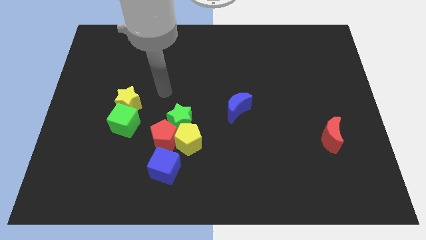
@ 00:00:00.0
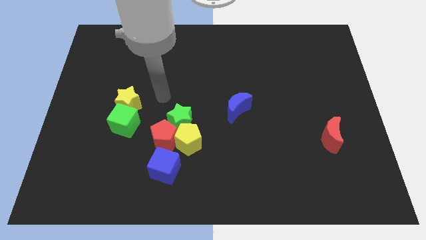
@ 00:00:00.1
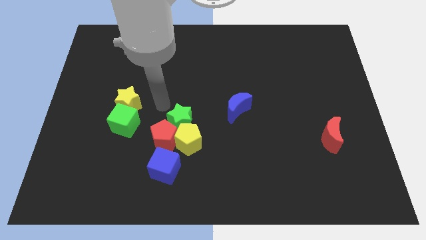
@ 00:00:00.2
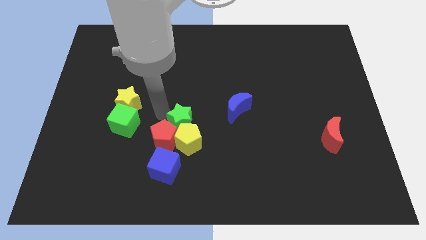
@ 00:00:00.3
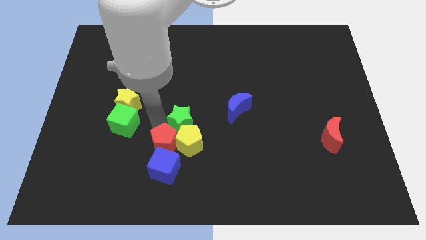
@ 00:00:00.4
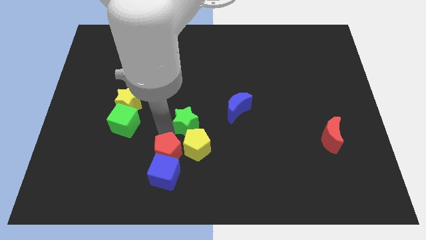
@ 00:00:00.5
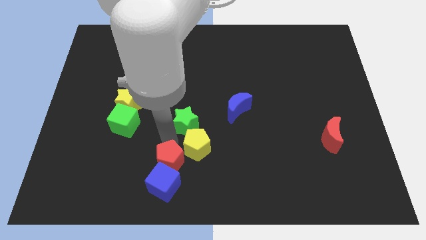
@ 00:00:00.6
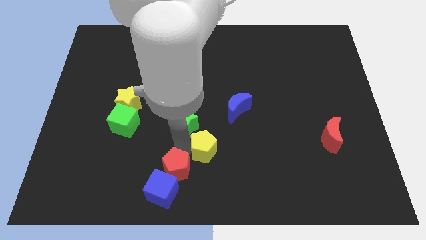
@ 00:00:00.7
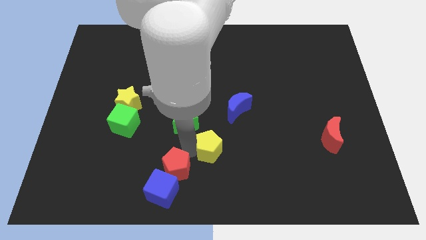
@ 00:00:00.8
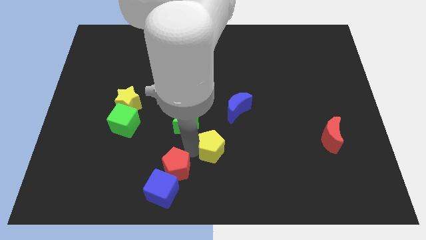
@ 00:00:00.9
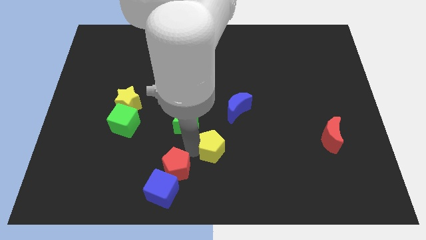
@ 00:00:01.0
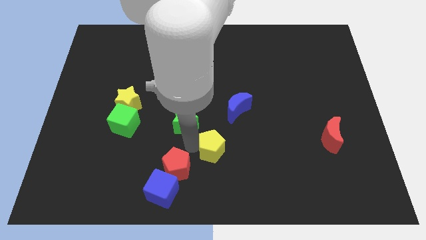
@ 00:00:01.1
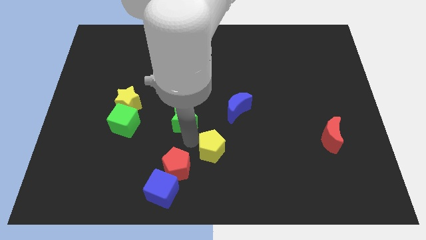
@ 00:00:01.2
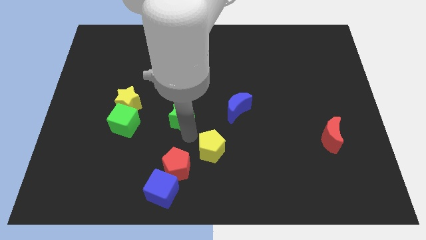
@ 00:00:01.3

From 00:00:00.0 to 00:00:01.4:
pull the green star apart from the red pentagon and yellow pentagon

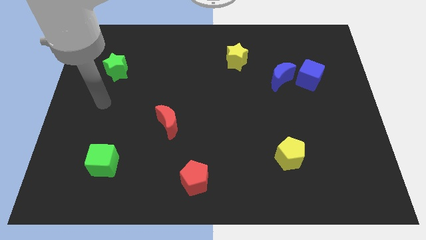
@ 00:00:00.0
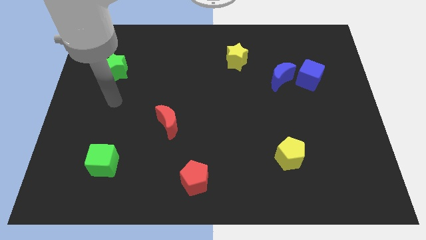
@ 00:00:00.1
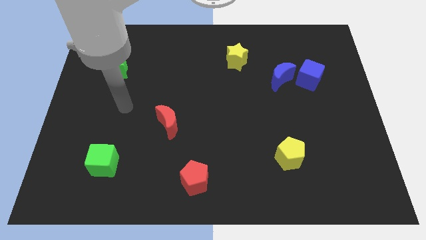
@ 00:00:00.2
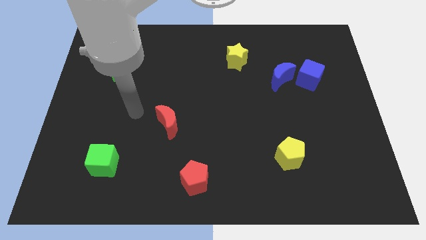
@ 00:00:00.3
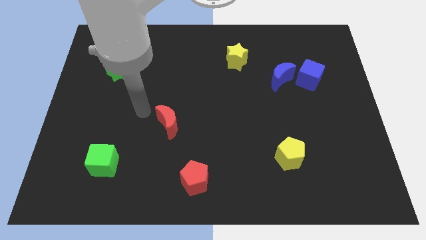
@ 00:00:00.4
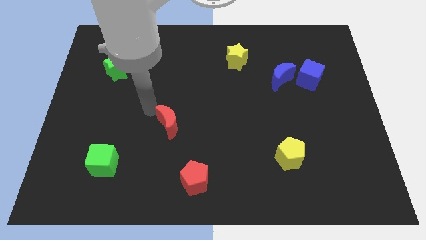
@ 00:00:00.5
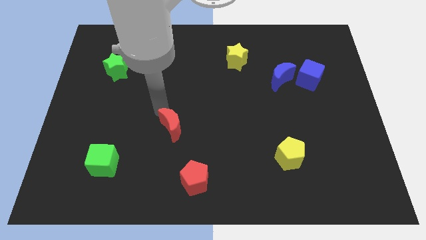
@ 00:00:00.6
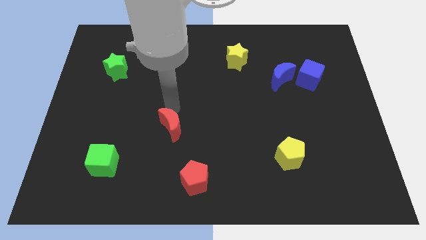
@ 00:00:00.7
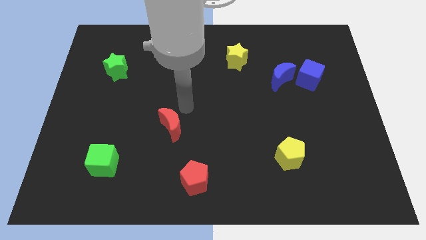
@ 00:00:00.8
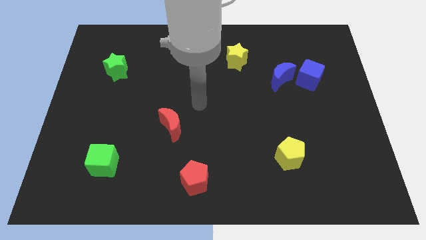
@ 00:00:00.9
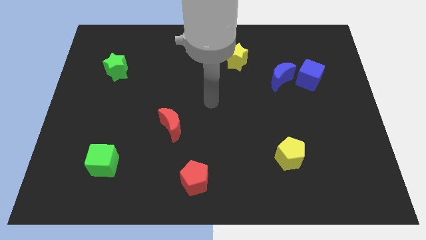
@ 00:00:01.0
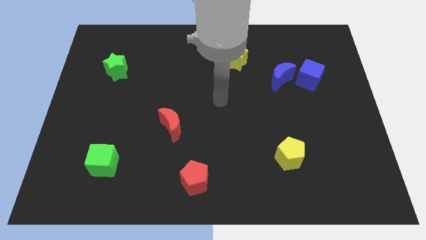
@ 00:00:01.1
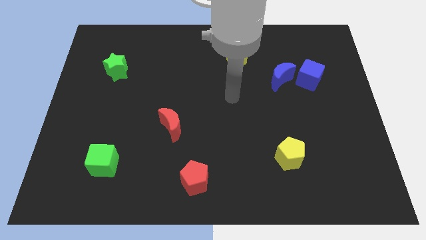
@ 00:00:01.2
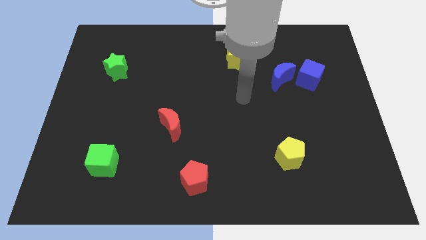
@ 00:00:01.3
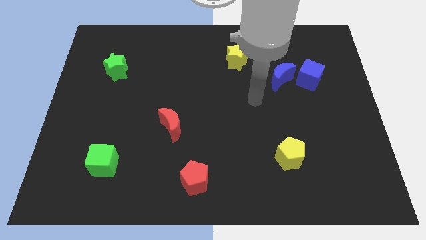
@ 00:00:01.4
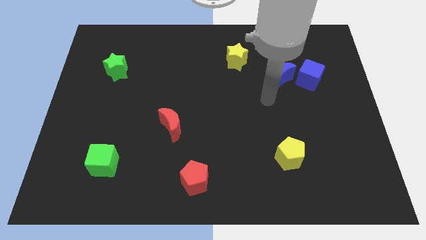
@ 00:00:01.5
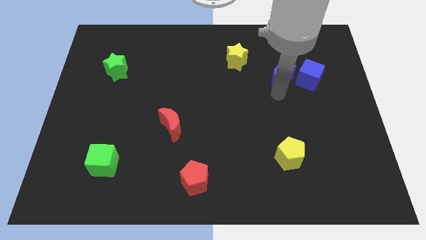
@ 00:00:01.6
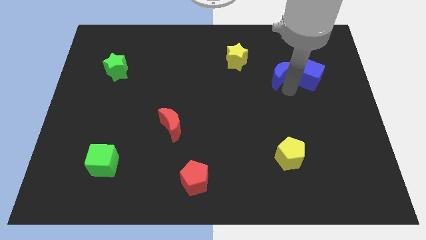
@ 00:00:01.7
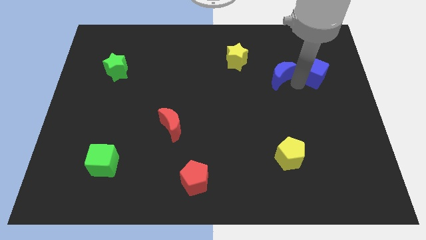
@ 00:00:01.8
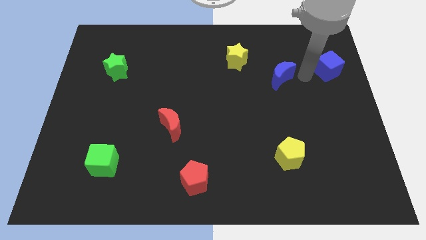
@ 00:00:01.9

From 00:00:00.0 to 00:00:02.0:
move the blue moon away from the blue cube

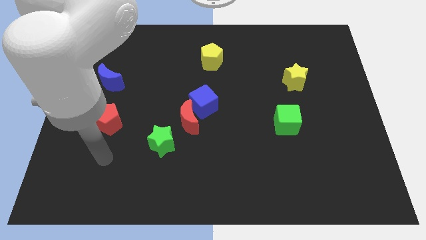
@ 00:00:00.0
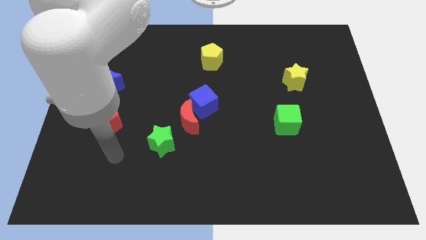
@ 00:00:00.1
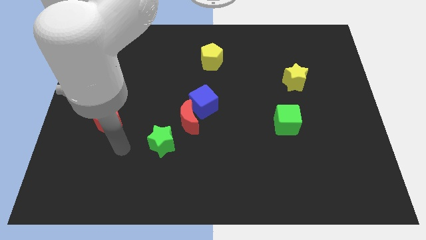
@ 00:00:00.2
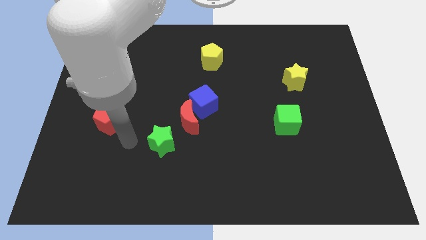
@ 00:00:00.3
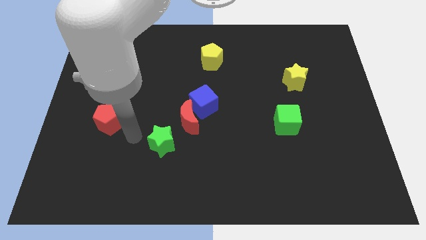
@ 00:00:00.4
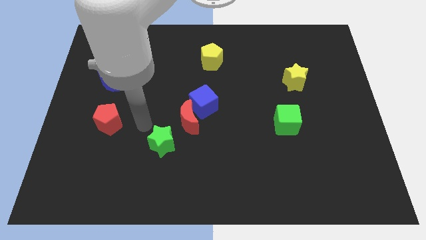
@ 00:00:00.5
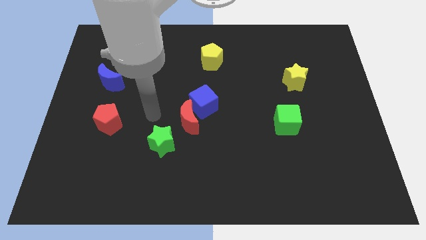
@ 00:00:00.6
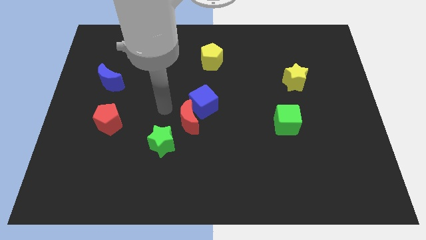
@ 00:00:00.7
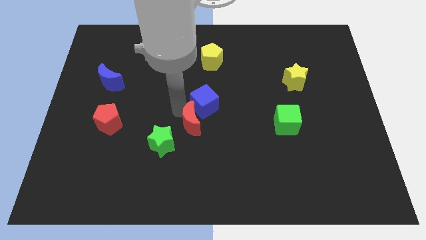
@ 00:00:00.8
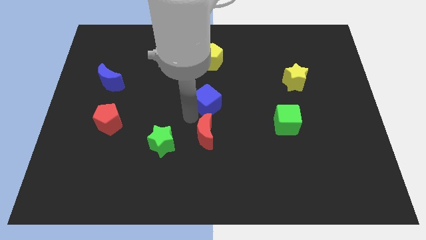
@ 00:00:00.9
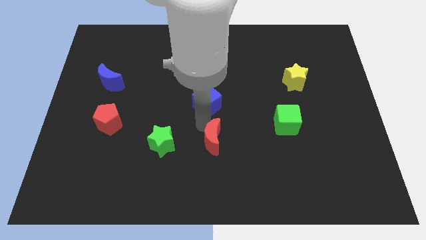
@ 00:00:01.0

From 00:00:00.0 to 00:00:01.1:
move the blue cube away from the red moon

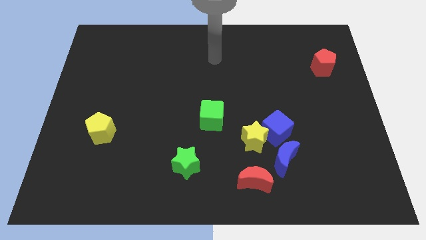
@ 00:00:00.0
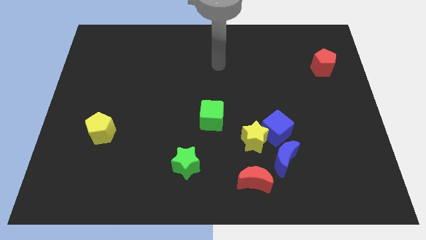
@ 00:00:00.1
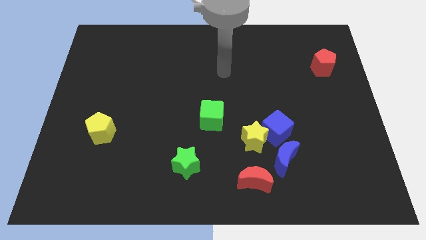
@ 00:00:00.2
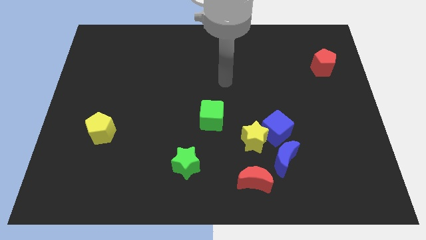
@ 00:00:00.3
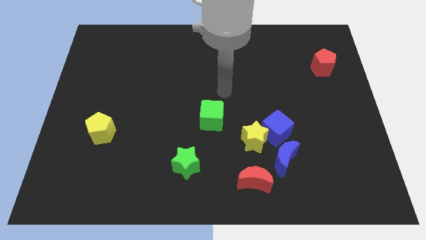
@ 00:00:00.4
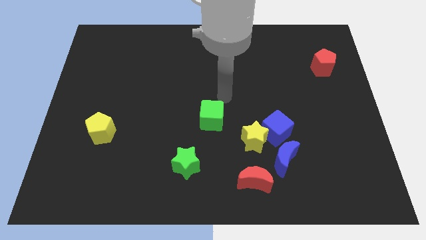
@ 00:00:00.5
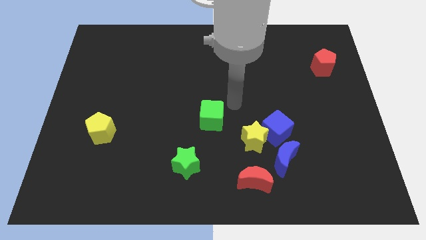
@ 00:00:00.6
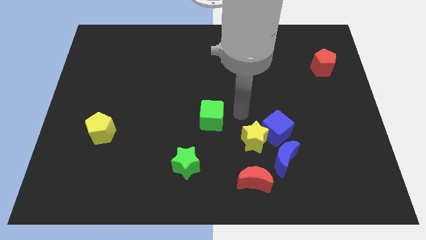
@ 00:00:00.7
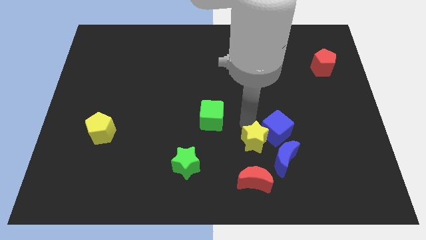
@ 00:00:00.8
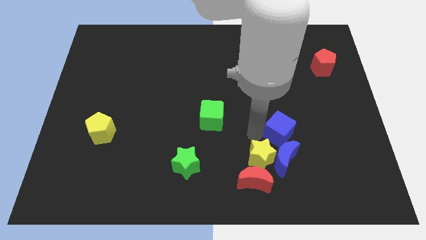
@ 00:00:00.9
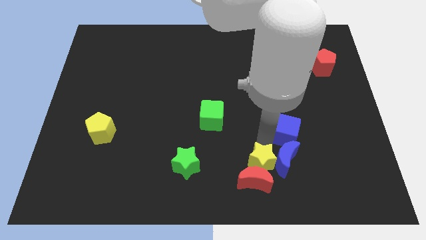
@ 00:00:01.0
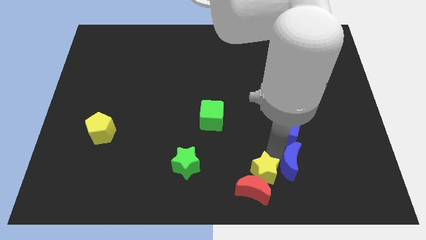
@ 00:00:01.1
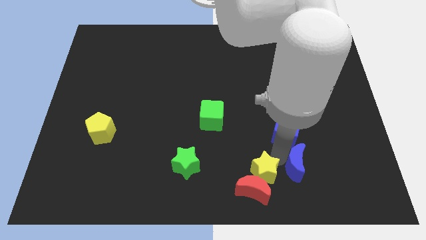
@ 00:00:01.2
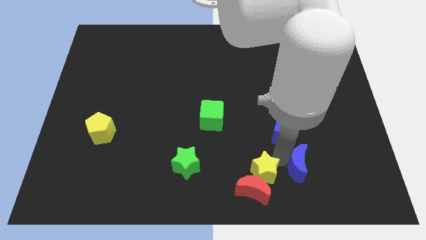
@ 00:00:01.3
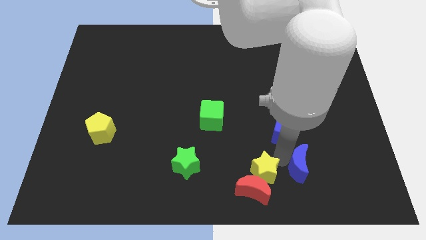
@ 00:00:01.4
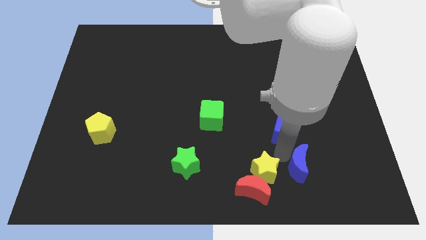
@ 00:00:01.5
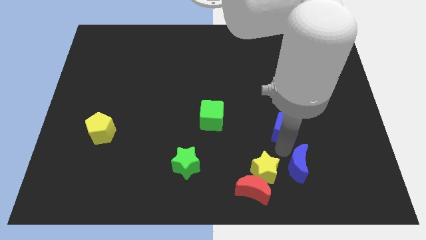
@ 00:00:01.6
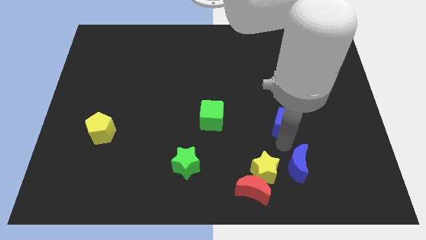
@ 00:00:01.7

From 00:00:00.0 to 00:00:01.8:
separate the blue cube from the yellow star and blue moon

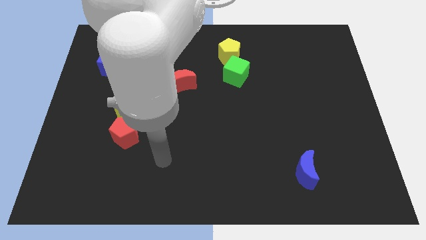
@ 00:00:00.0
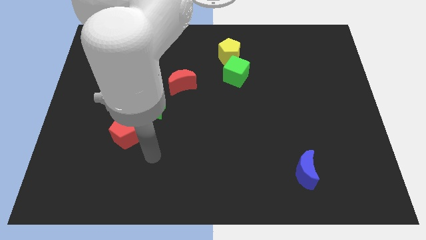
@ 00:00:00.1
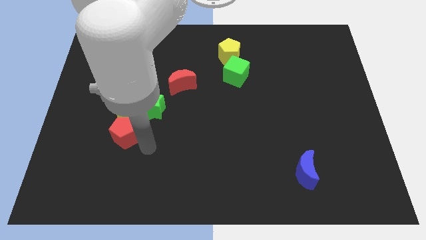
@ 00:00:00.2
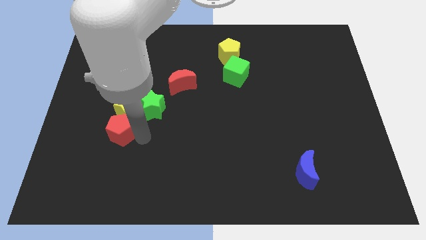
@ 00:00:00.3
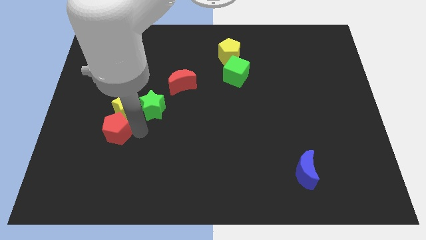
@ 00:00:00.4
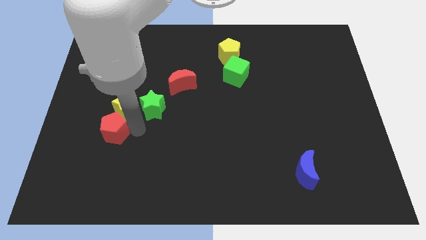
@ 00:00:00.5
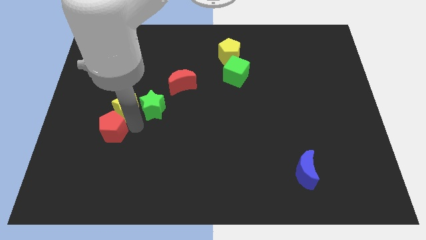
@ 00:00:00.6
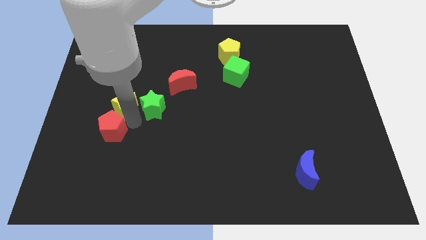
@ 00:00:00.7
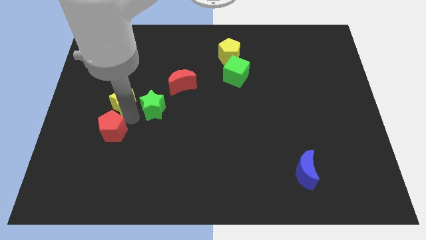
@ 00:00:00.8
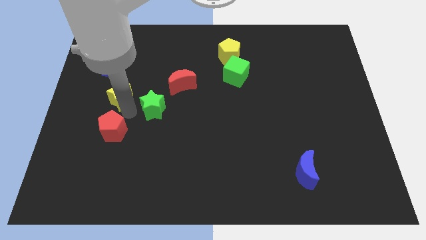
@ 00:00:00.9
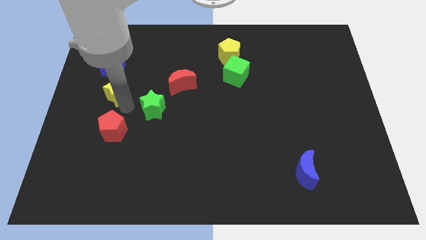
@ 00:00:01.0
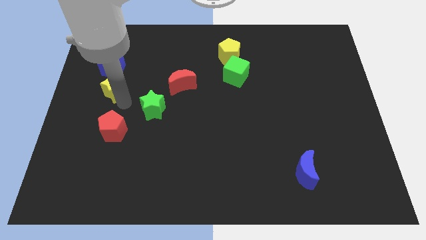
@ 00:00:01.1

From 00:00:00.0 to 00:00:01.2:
separate the yellow star from the green star and red pentagon

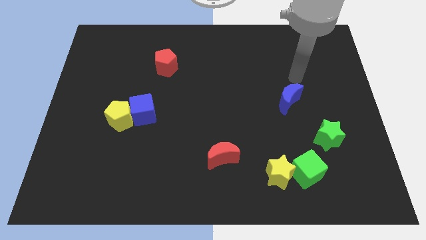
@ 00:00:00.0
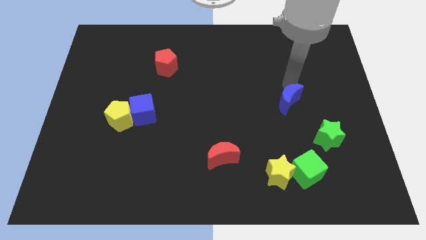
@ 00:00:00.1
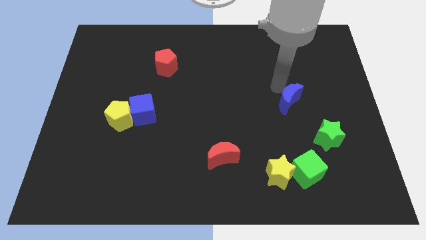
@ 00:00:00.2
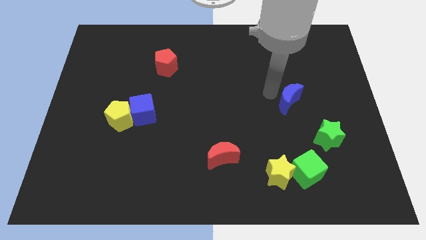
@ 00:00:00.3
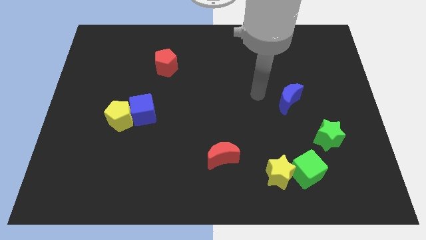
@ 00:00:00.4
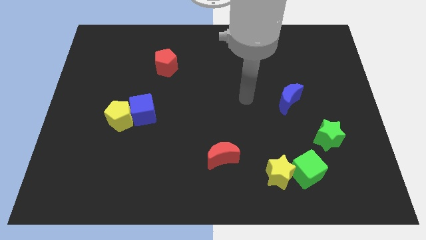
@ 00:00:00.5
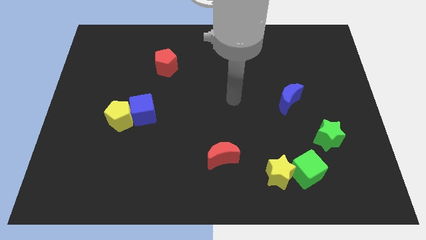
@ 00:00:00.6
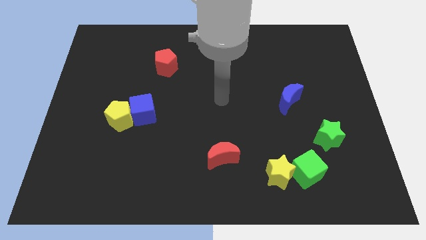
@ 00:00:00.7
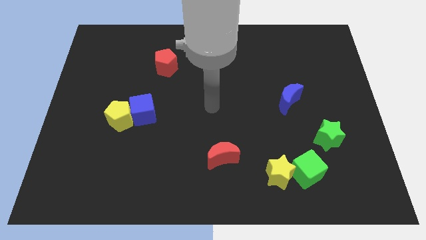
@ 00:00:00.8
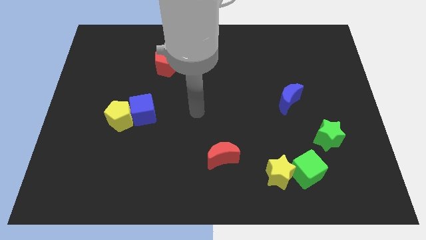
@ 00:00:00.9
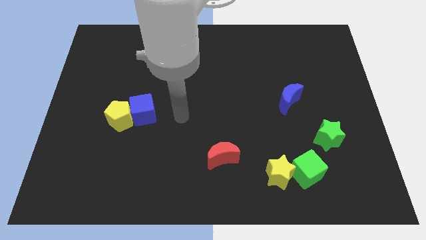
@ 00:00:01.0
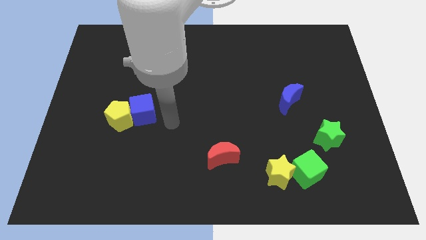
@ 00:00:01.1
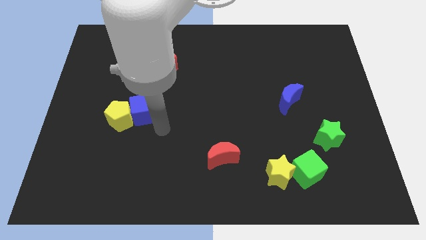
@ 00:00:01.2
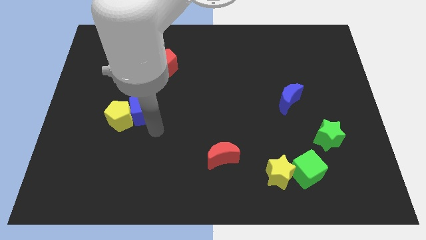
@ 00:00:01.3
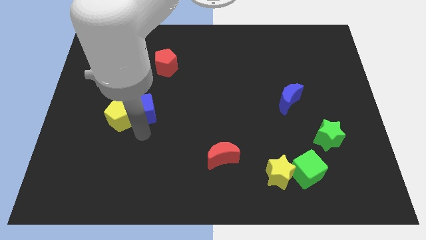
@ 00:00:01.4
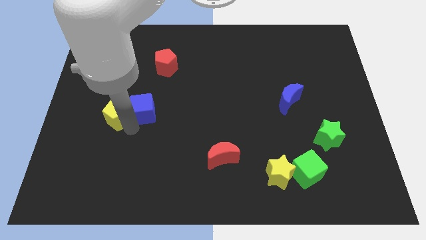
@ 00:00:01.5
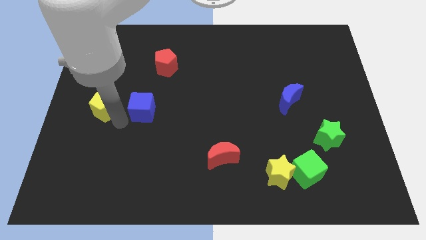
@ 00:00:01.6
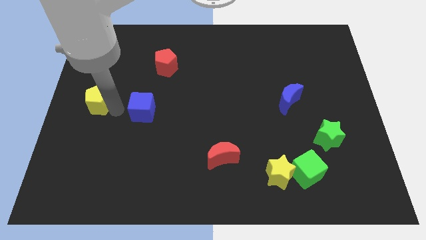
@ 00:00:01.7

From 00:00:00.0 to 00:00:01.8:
separate the blue cube from the yellow pentagon
